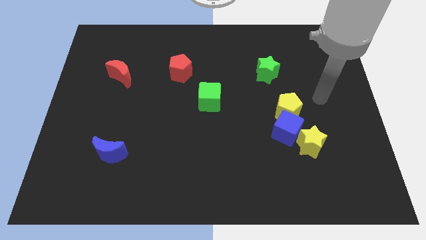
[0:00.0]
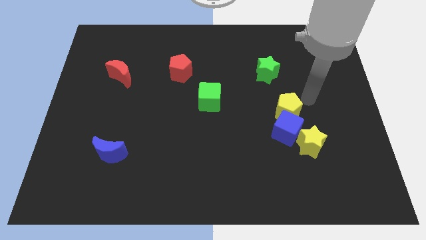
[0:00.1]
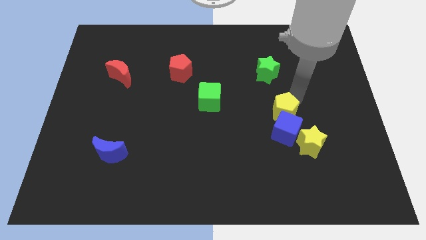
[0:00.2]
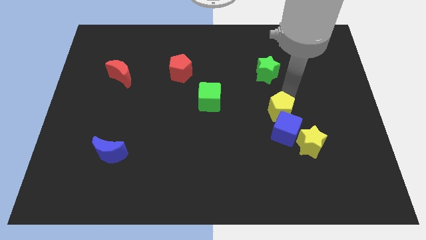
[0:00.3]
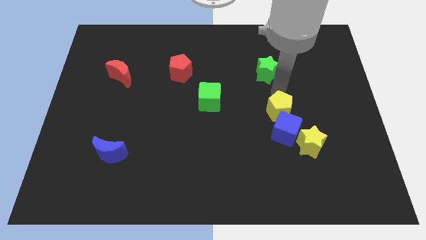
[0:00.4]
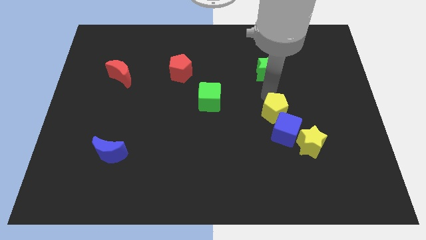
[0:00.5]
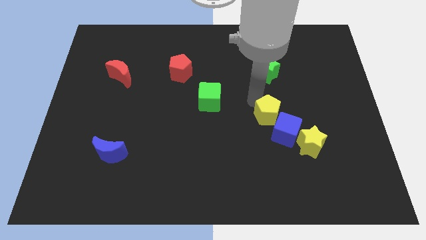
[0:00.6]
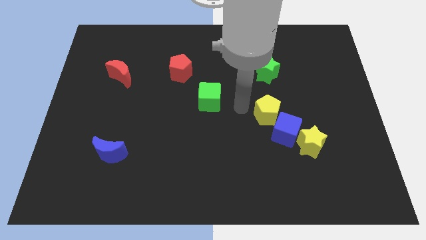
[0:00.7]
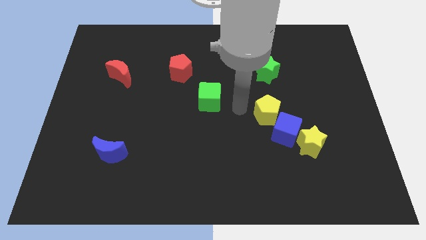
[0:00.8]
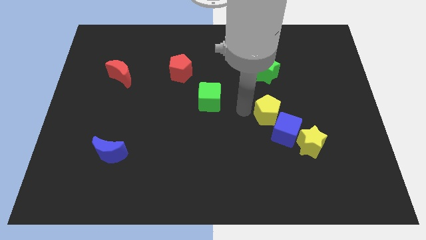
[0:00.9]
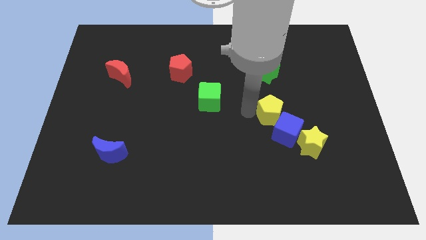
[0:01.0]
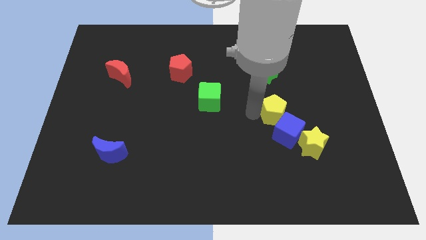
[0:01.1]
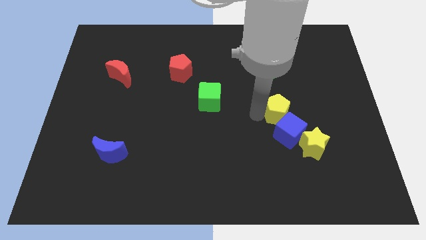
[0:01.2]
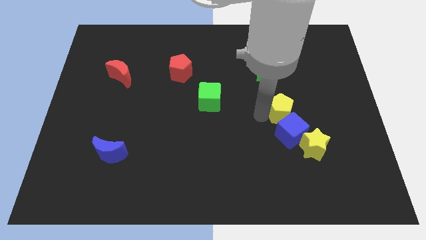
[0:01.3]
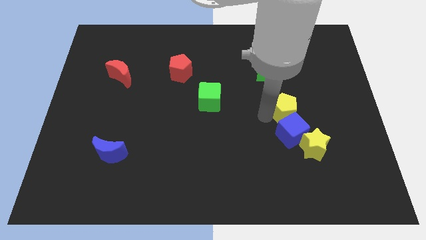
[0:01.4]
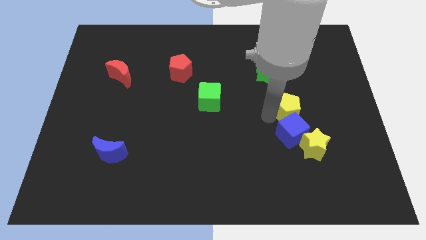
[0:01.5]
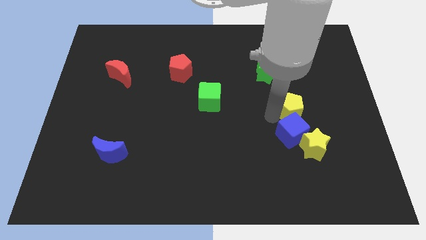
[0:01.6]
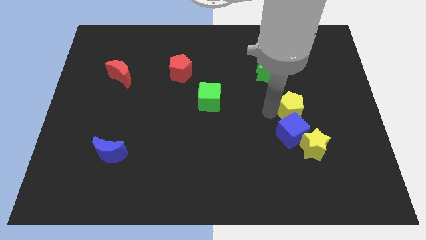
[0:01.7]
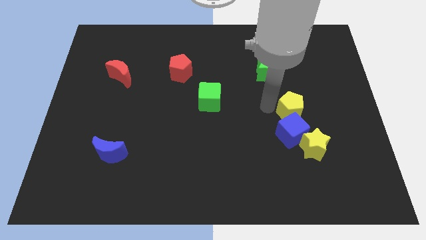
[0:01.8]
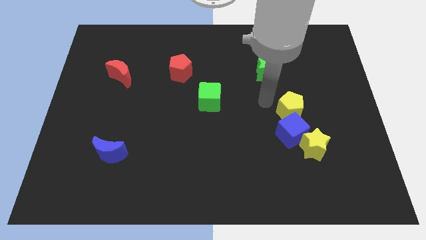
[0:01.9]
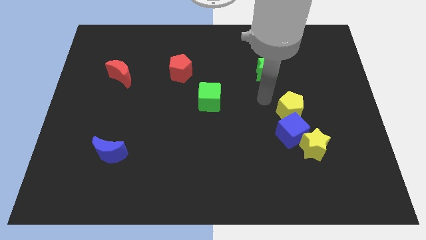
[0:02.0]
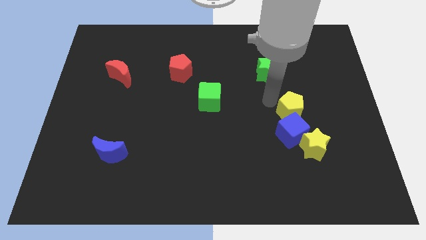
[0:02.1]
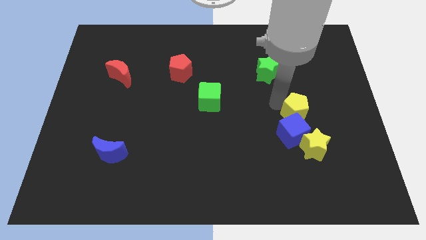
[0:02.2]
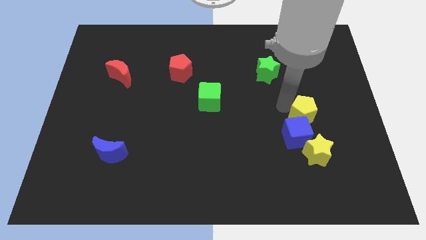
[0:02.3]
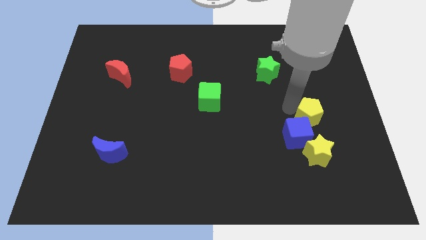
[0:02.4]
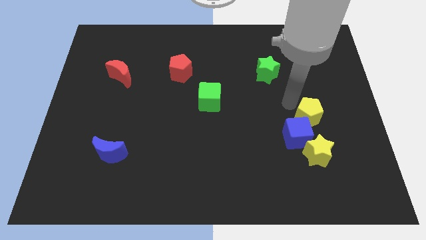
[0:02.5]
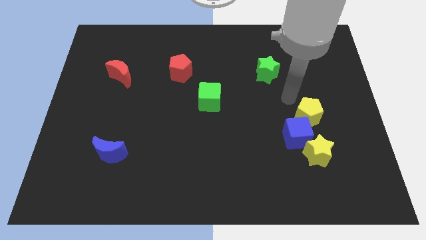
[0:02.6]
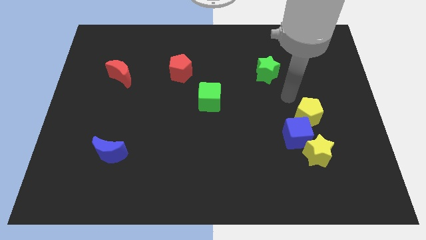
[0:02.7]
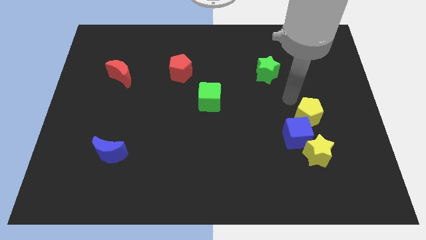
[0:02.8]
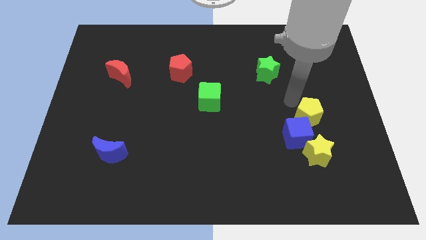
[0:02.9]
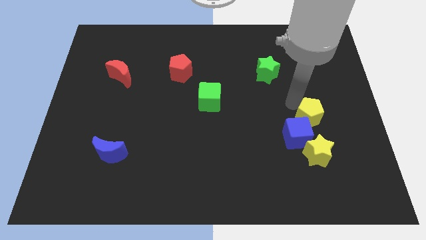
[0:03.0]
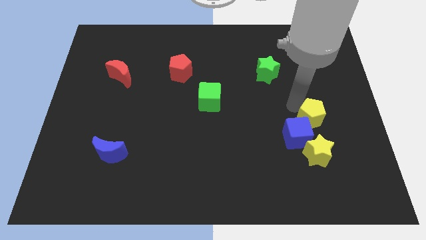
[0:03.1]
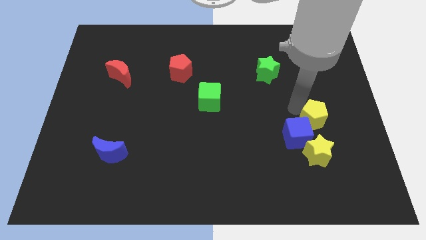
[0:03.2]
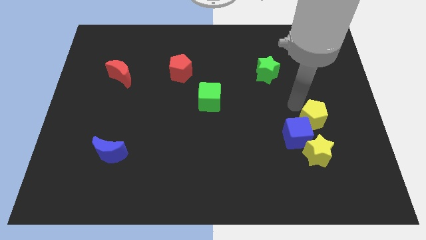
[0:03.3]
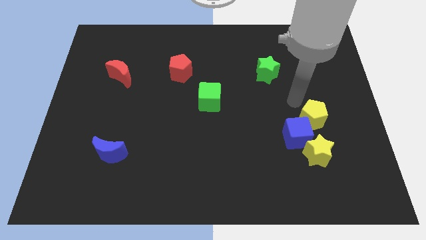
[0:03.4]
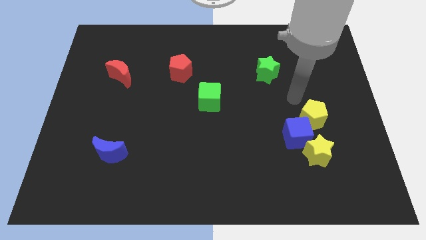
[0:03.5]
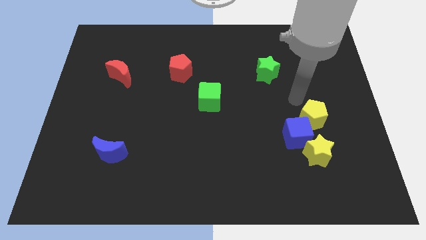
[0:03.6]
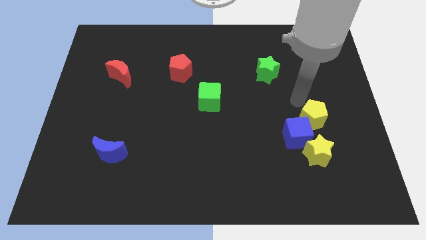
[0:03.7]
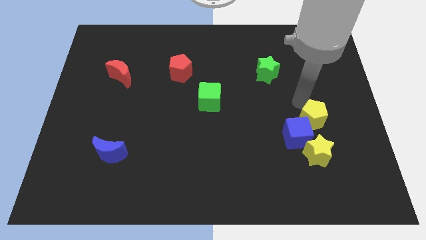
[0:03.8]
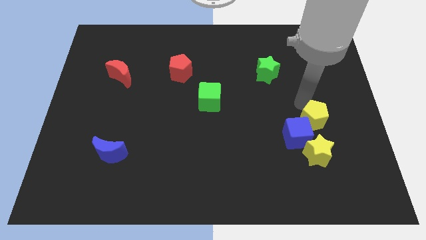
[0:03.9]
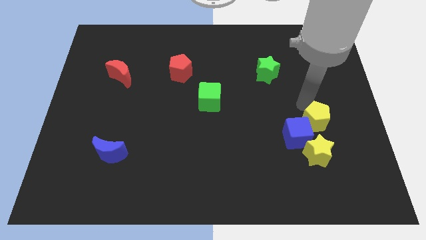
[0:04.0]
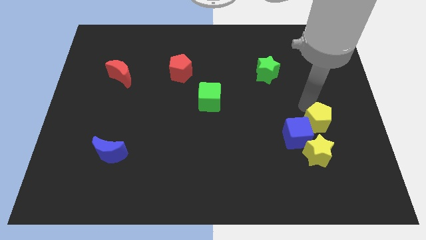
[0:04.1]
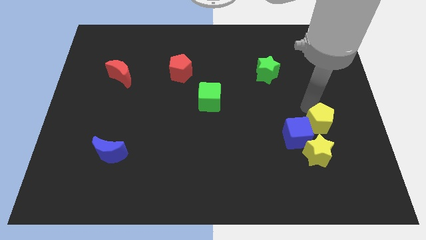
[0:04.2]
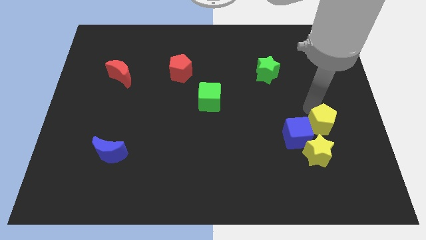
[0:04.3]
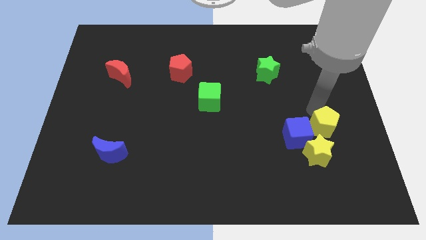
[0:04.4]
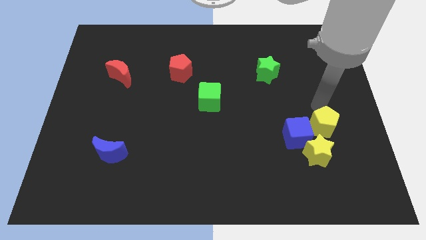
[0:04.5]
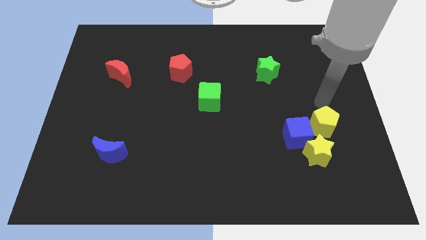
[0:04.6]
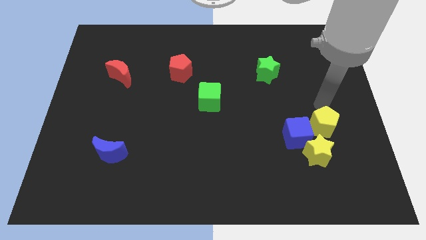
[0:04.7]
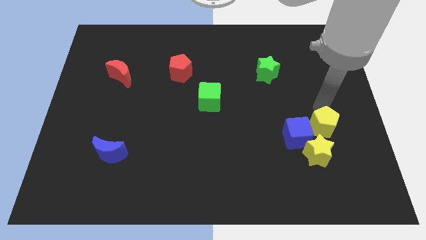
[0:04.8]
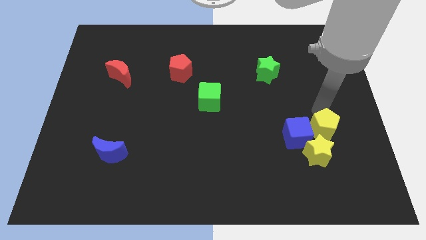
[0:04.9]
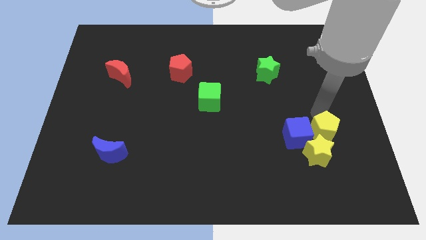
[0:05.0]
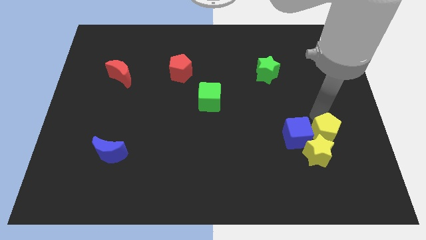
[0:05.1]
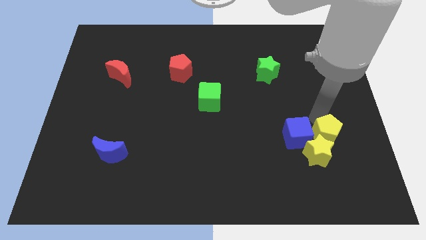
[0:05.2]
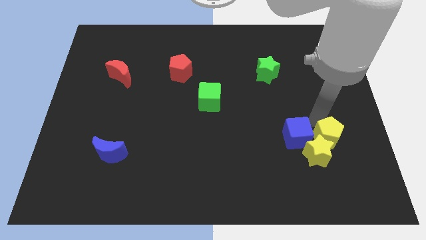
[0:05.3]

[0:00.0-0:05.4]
move the yellow pentagon to the bottom right of the blue cube
